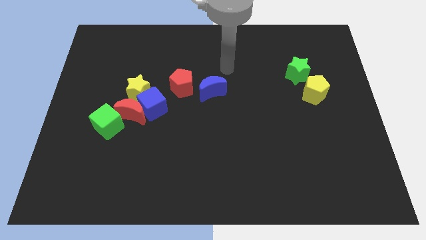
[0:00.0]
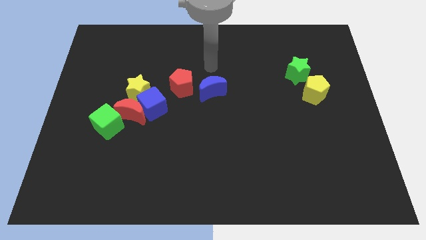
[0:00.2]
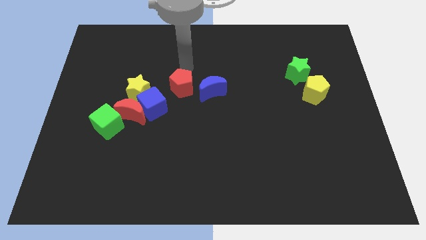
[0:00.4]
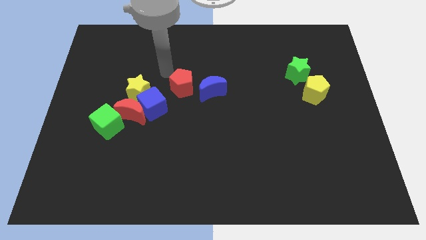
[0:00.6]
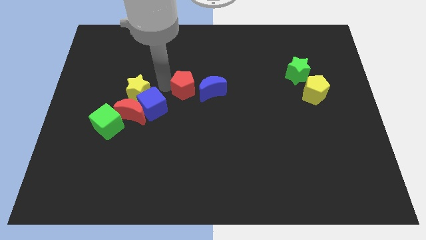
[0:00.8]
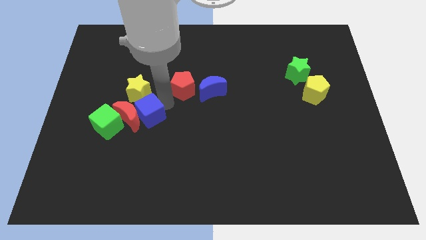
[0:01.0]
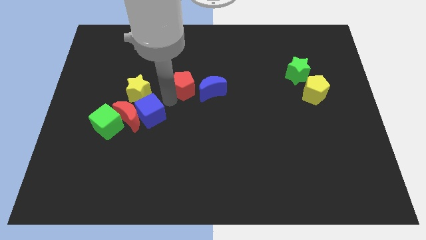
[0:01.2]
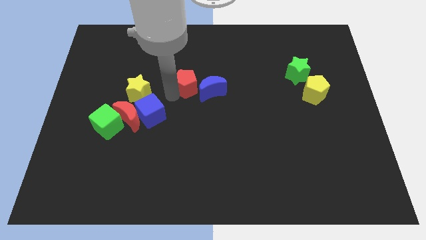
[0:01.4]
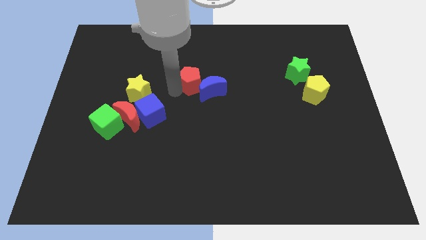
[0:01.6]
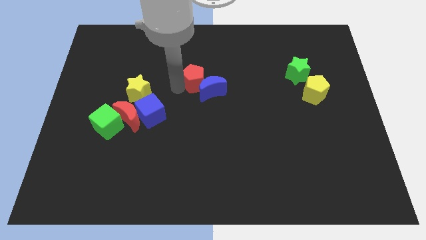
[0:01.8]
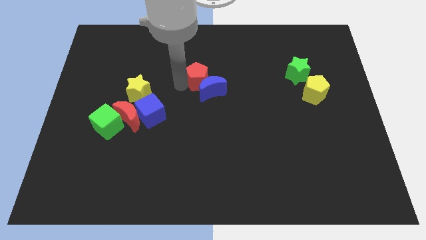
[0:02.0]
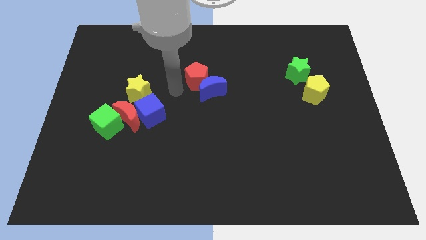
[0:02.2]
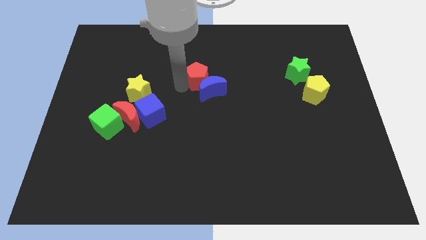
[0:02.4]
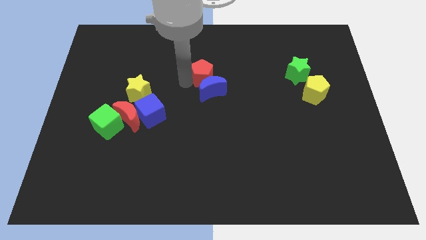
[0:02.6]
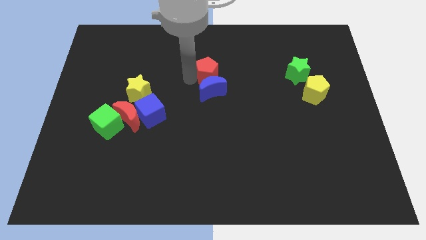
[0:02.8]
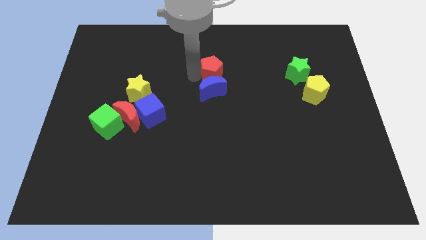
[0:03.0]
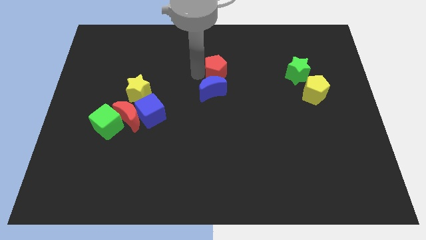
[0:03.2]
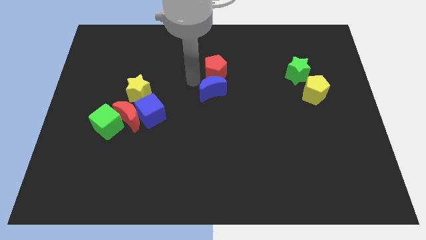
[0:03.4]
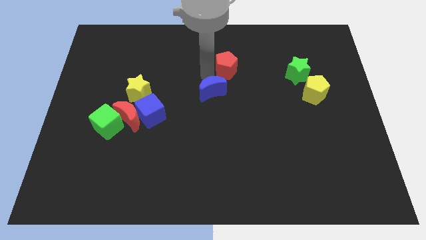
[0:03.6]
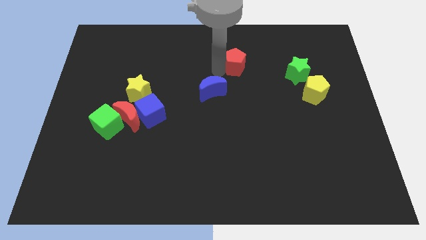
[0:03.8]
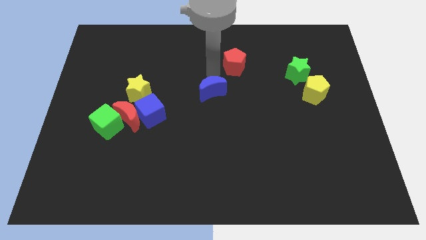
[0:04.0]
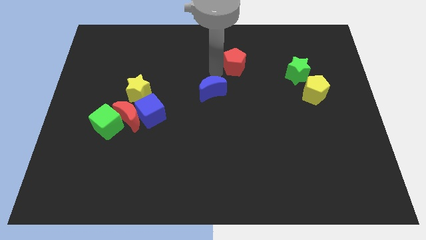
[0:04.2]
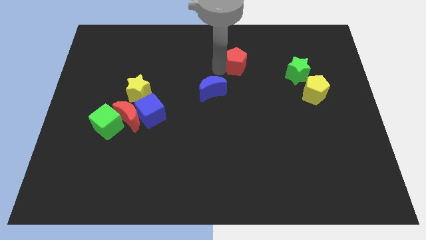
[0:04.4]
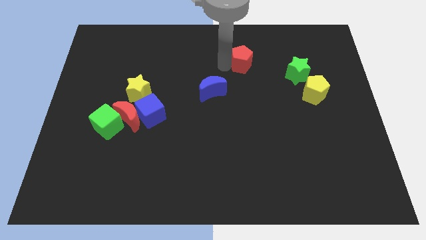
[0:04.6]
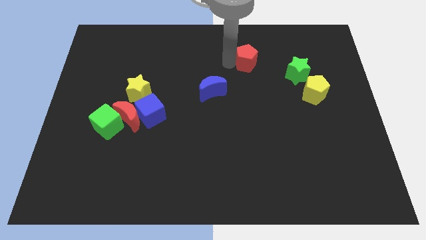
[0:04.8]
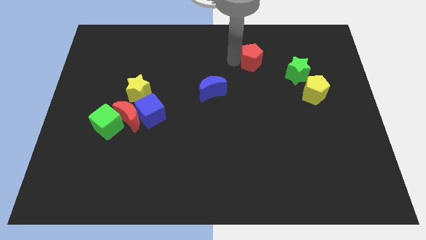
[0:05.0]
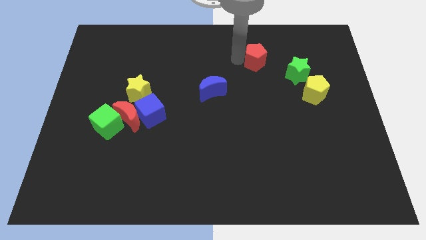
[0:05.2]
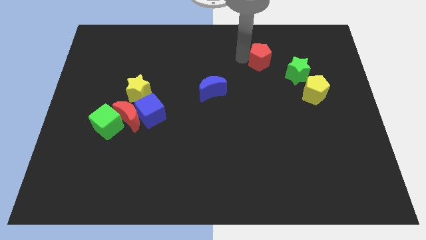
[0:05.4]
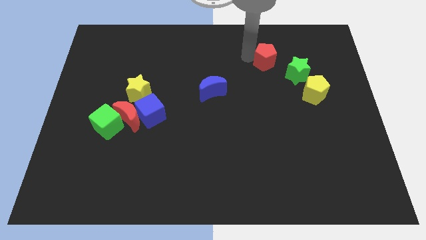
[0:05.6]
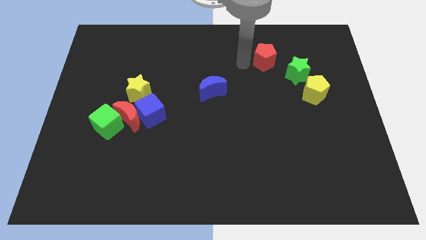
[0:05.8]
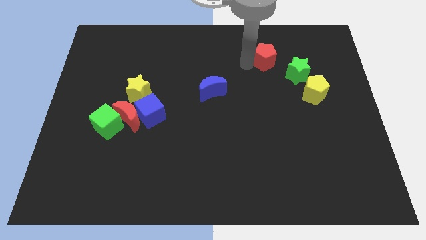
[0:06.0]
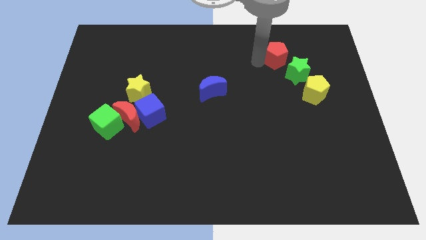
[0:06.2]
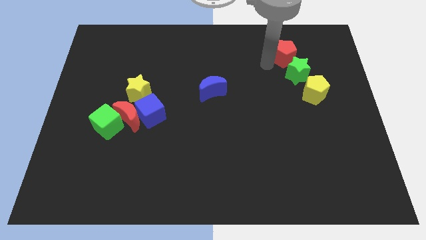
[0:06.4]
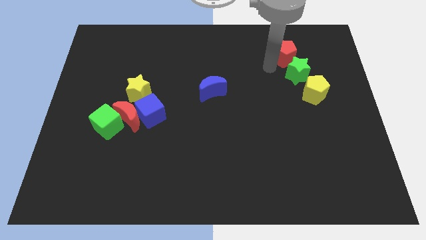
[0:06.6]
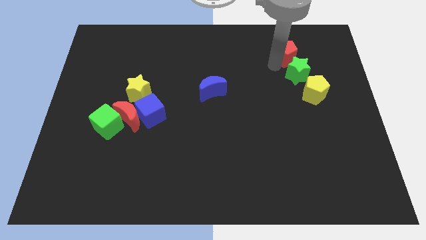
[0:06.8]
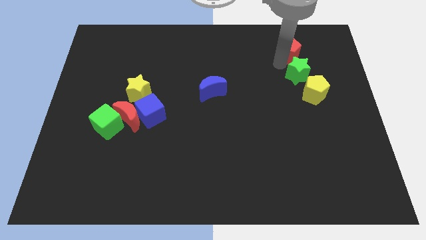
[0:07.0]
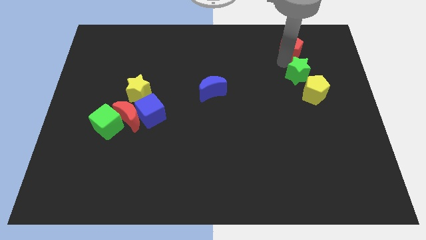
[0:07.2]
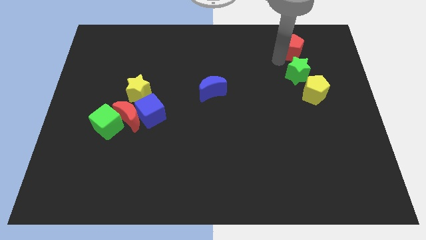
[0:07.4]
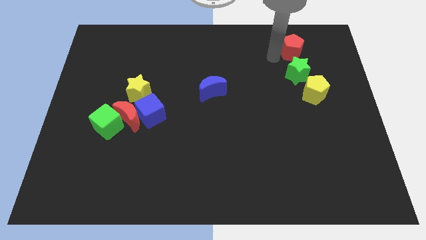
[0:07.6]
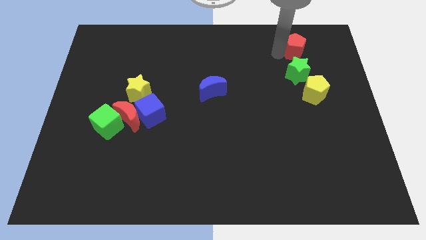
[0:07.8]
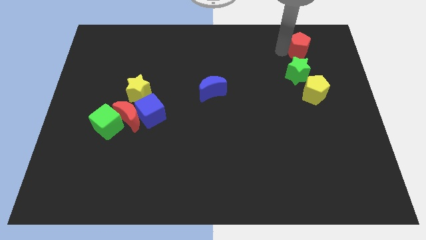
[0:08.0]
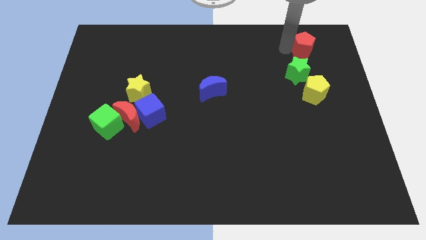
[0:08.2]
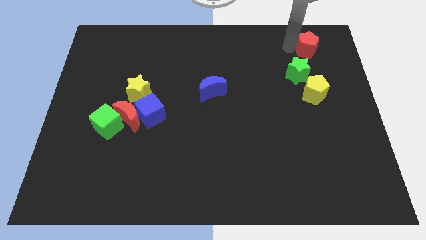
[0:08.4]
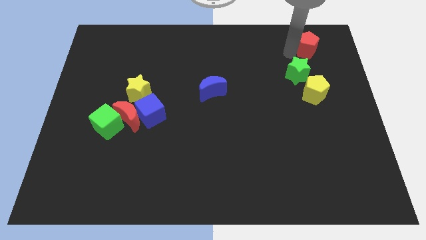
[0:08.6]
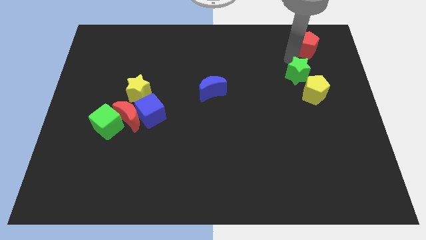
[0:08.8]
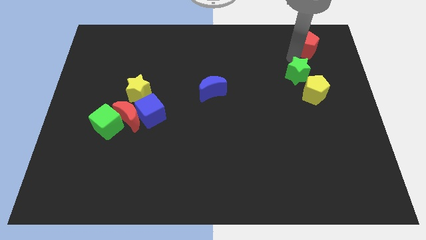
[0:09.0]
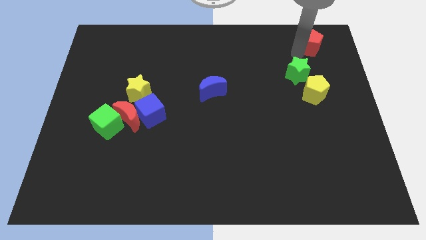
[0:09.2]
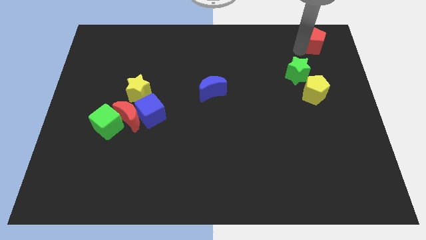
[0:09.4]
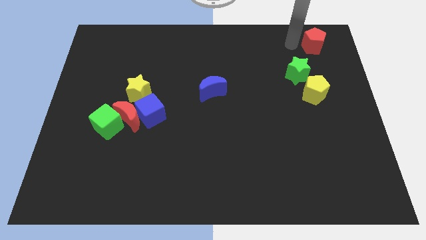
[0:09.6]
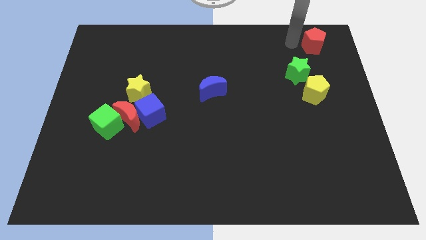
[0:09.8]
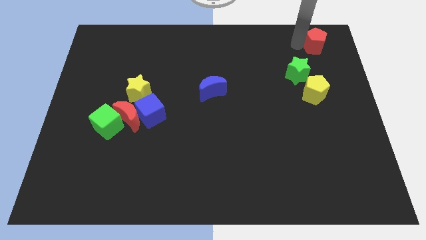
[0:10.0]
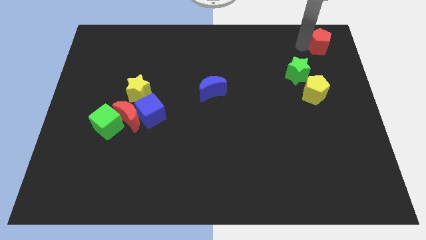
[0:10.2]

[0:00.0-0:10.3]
push the red pentagon to the top right

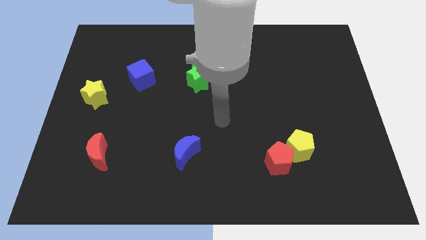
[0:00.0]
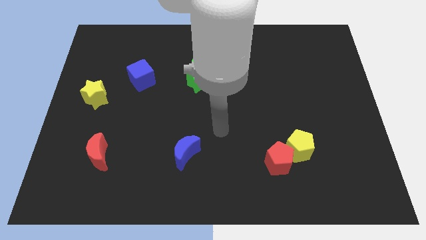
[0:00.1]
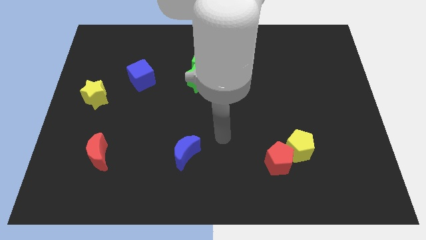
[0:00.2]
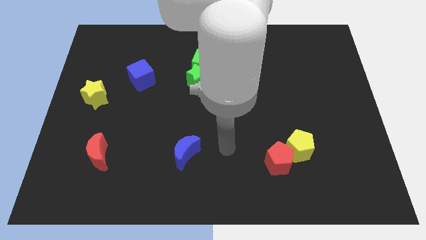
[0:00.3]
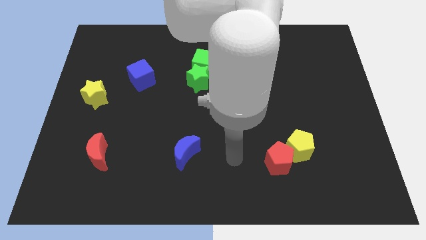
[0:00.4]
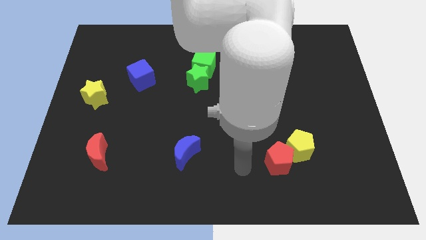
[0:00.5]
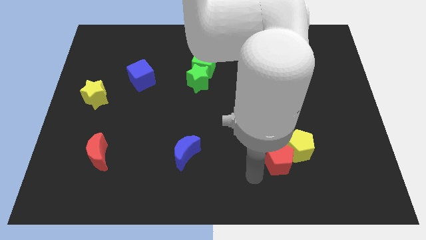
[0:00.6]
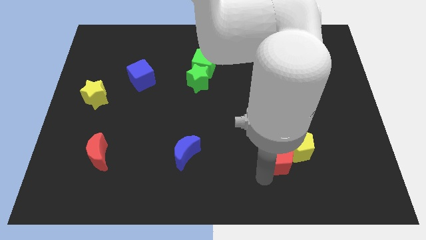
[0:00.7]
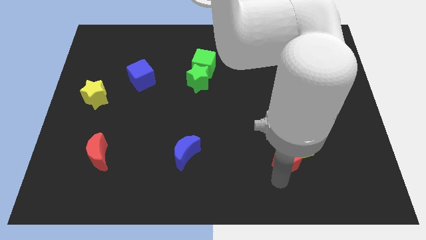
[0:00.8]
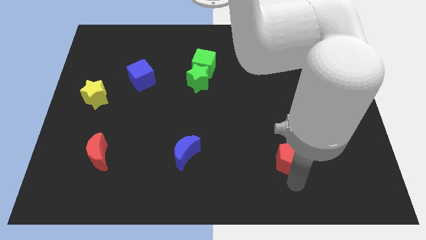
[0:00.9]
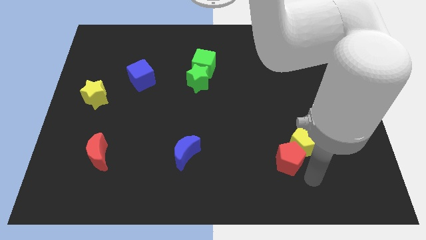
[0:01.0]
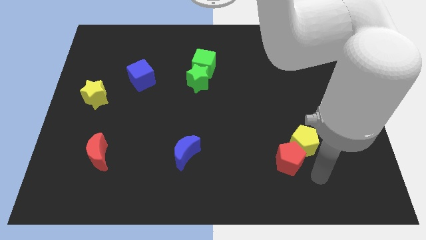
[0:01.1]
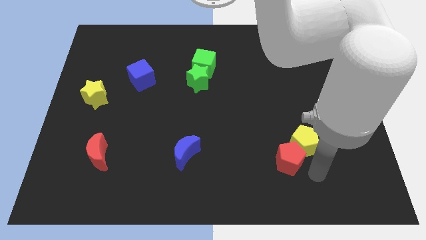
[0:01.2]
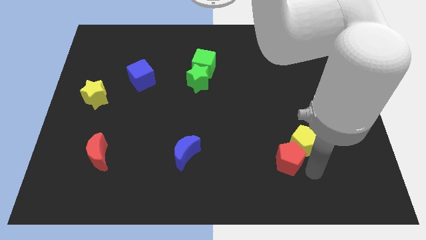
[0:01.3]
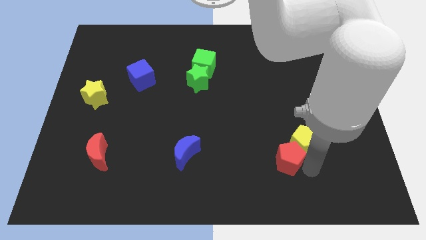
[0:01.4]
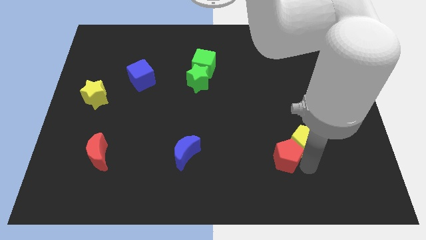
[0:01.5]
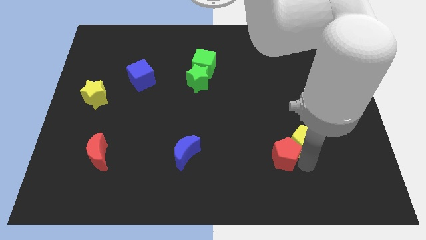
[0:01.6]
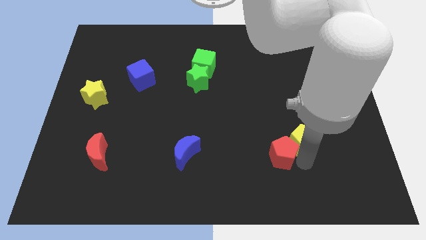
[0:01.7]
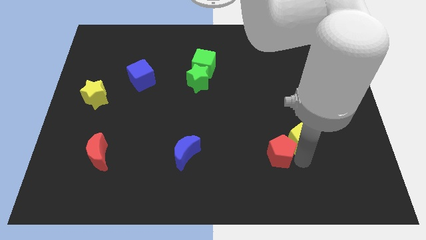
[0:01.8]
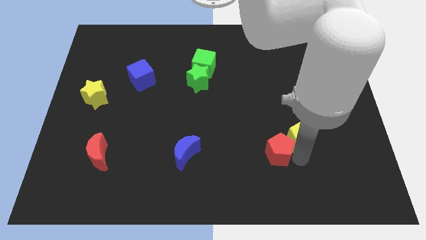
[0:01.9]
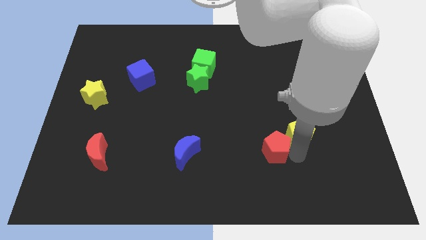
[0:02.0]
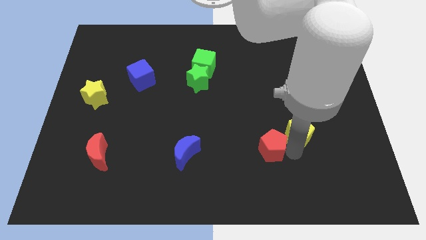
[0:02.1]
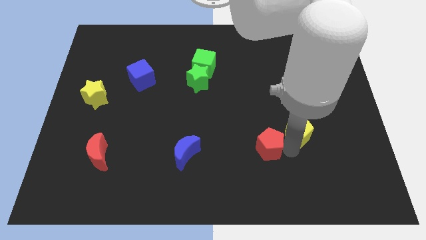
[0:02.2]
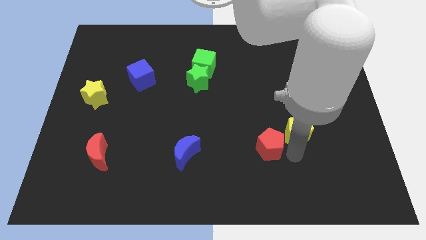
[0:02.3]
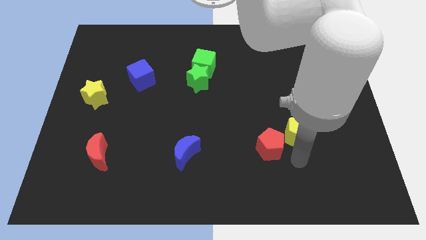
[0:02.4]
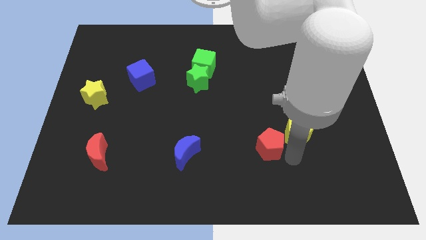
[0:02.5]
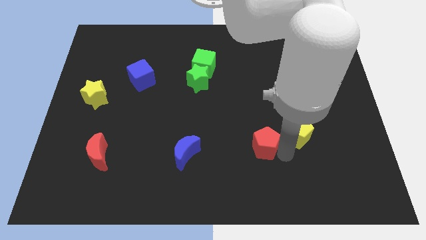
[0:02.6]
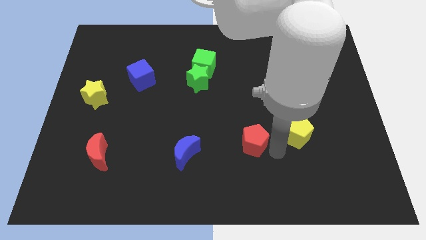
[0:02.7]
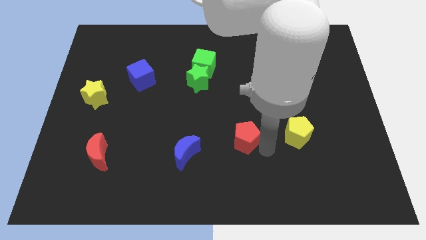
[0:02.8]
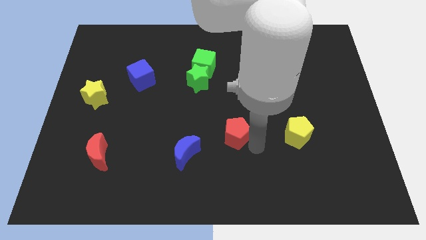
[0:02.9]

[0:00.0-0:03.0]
slide the red pentagon to the center
